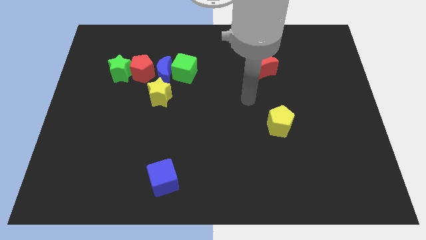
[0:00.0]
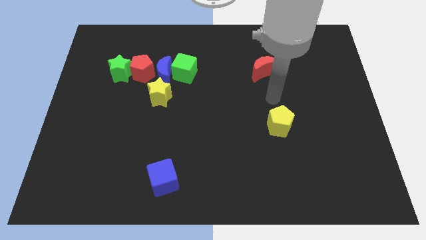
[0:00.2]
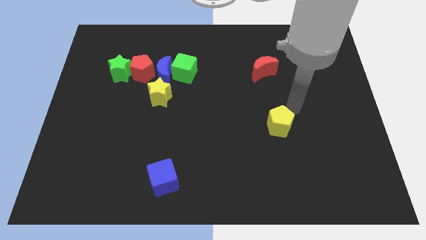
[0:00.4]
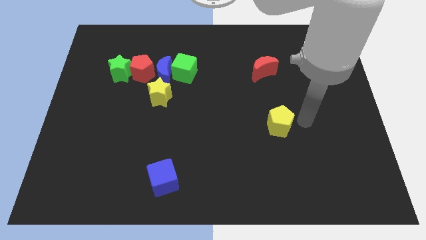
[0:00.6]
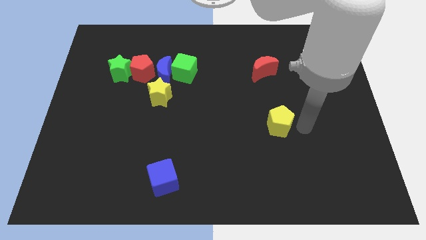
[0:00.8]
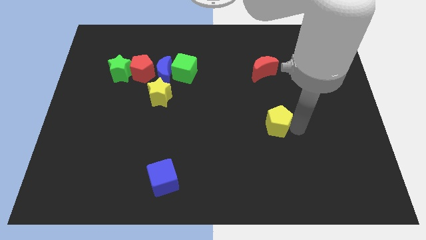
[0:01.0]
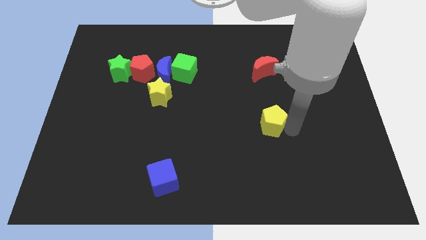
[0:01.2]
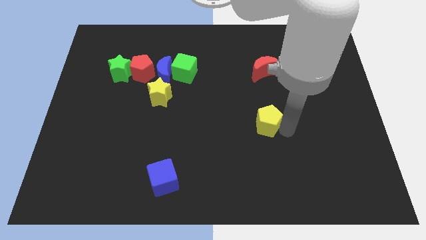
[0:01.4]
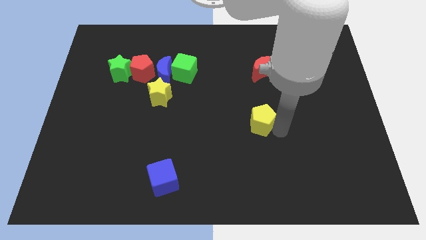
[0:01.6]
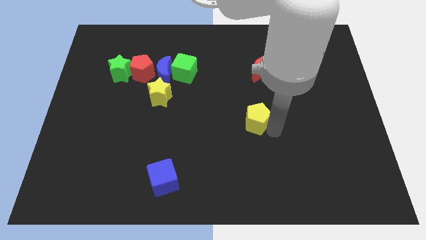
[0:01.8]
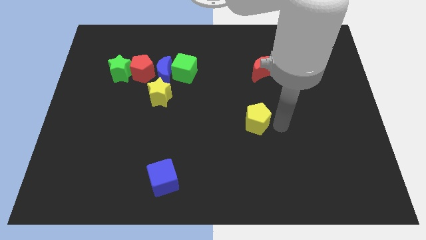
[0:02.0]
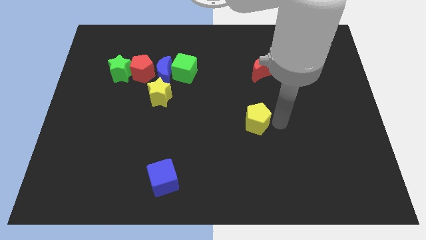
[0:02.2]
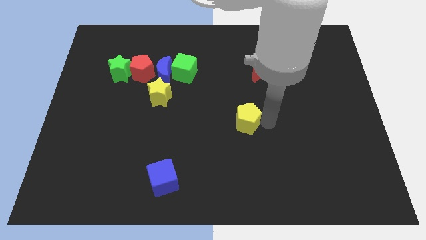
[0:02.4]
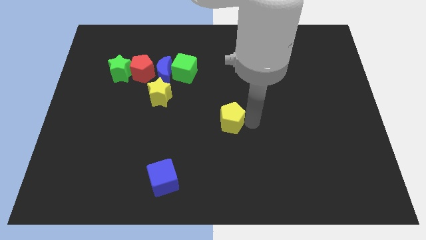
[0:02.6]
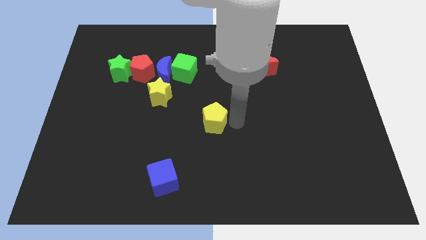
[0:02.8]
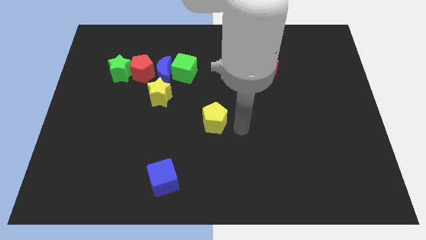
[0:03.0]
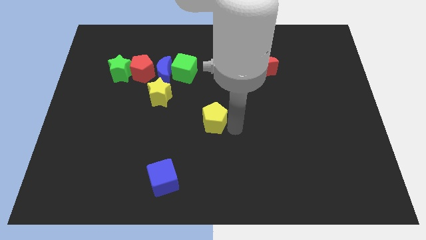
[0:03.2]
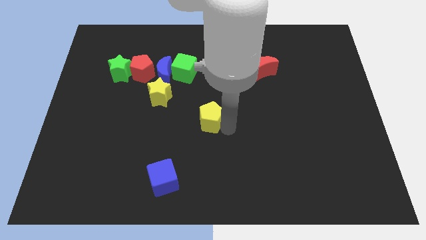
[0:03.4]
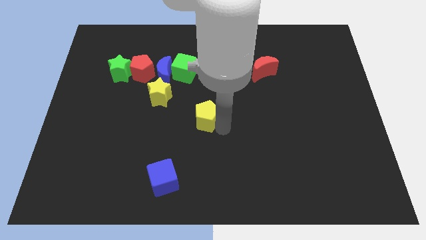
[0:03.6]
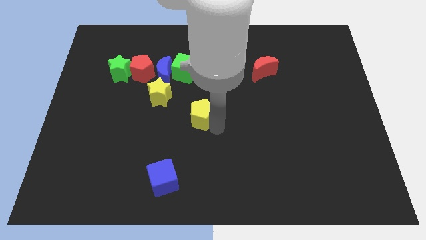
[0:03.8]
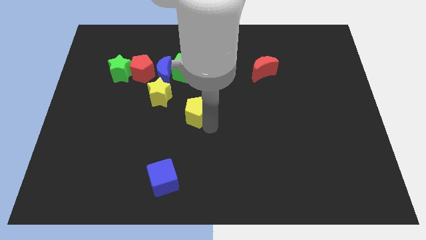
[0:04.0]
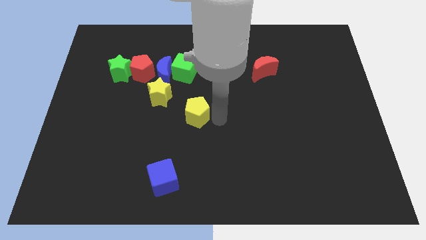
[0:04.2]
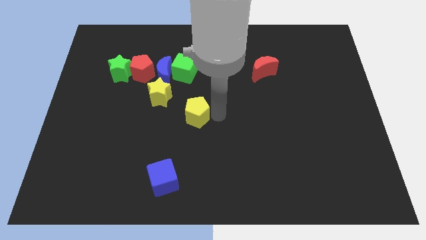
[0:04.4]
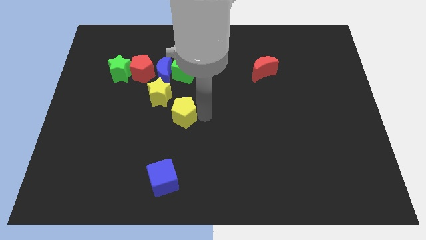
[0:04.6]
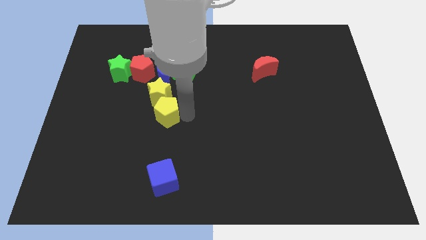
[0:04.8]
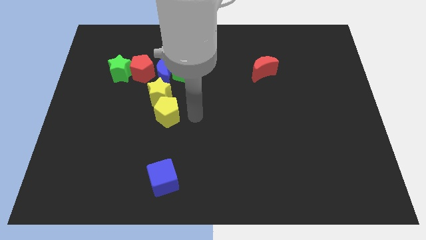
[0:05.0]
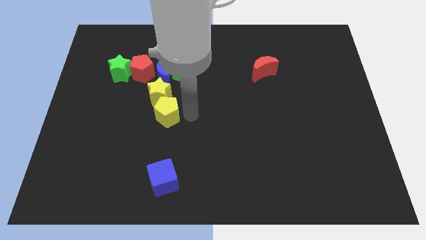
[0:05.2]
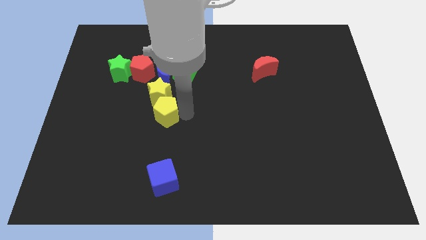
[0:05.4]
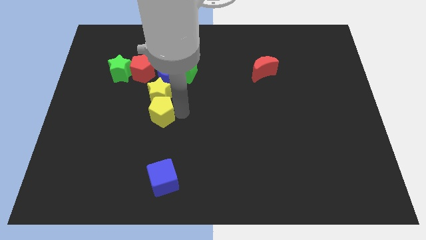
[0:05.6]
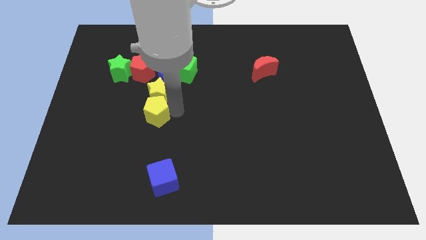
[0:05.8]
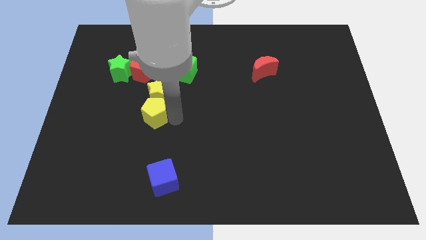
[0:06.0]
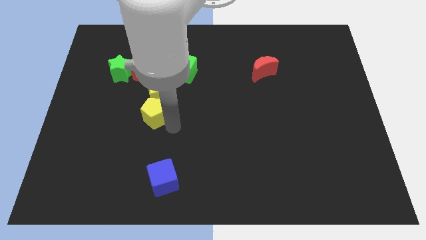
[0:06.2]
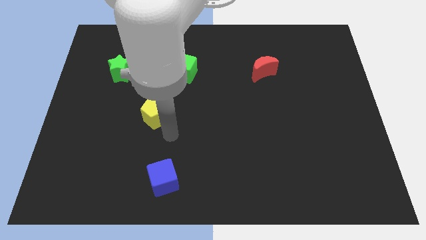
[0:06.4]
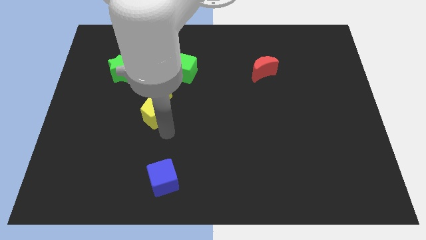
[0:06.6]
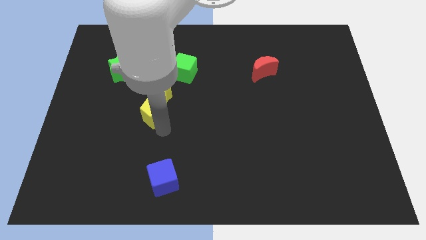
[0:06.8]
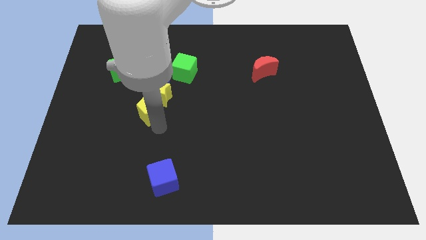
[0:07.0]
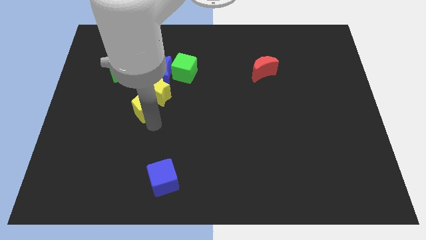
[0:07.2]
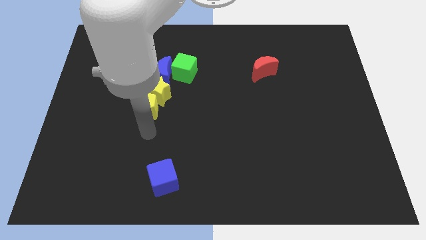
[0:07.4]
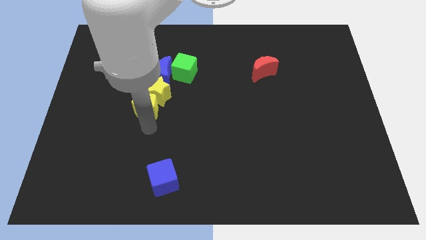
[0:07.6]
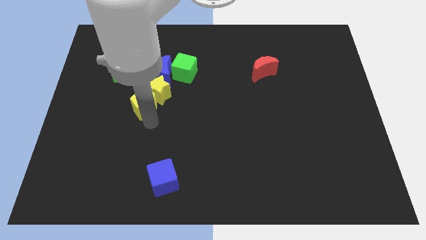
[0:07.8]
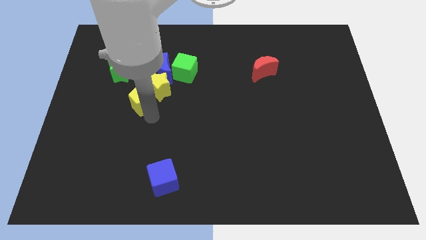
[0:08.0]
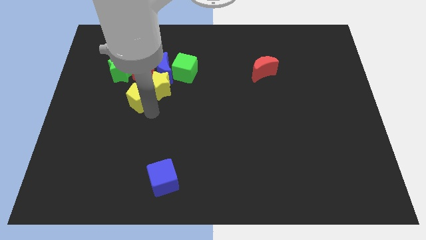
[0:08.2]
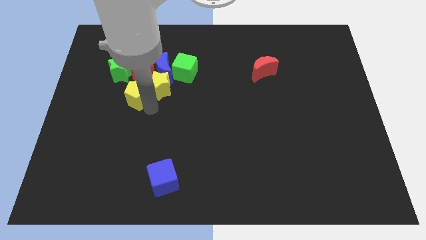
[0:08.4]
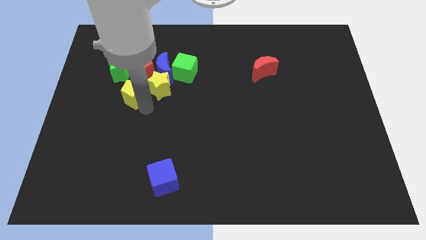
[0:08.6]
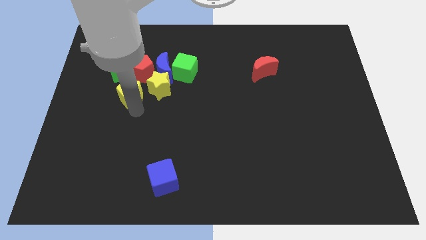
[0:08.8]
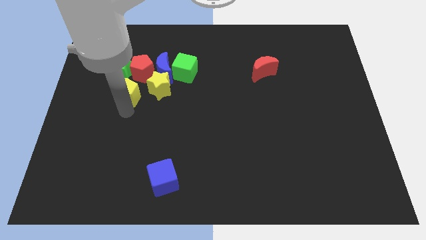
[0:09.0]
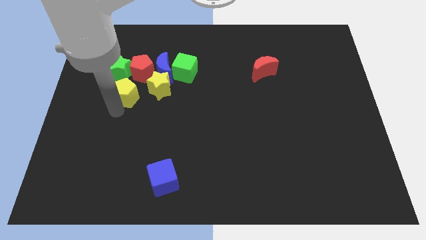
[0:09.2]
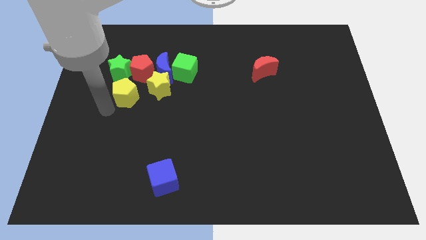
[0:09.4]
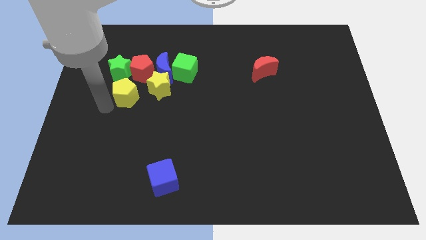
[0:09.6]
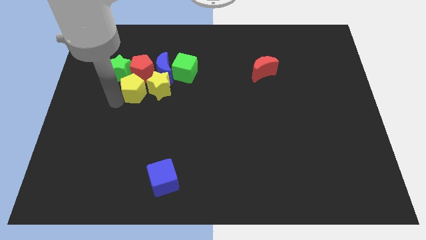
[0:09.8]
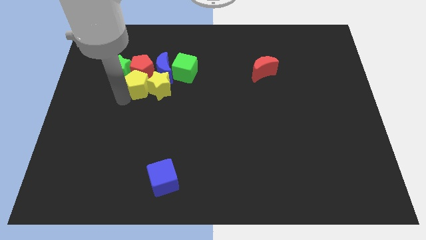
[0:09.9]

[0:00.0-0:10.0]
move the yellow pentagon towards the red pentagon

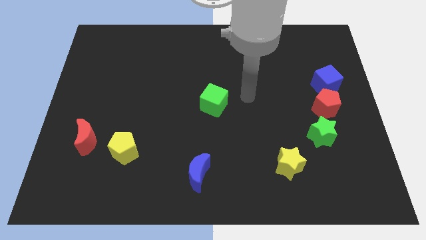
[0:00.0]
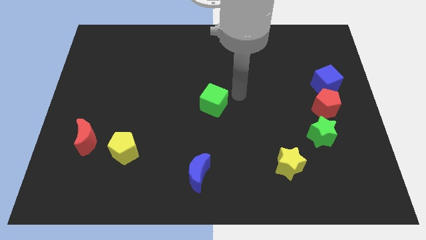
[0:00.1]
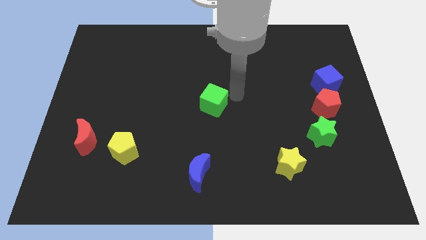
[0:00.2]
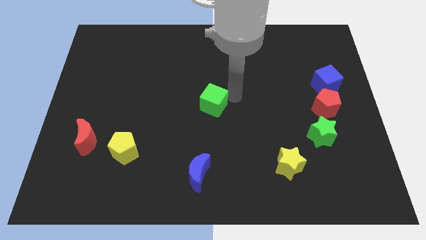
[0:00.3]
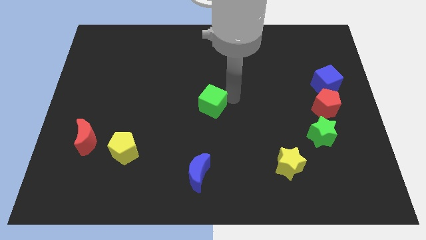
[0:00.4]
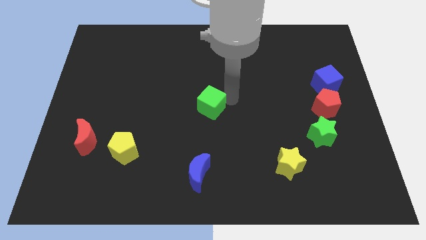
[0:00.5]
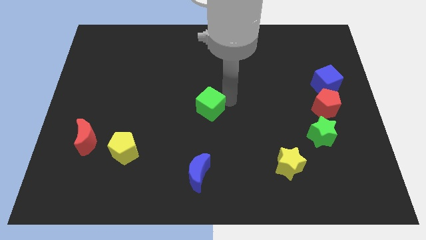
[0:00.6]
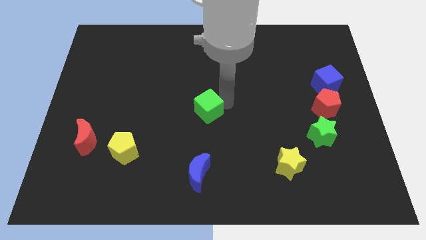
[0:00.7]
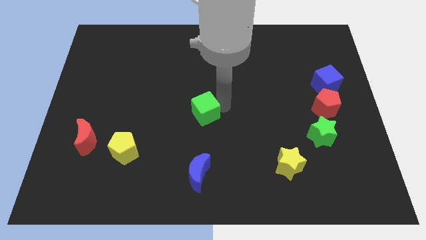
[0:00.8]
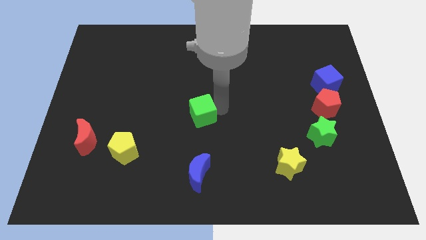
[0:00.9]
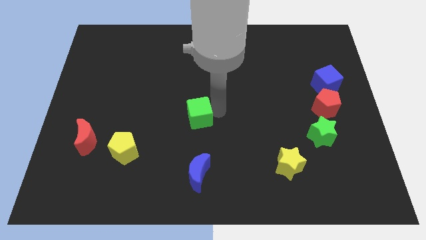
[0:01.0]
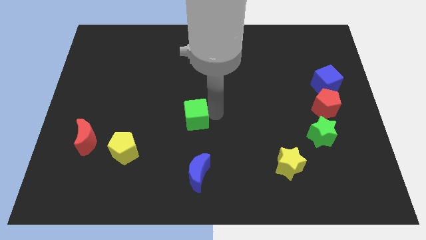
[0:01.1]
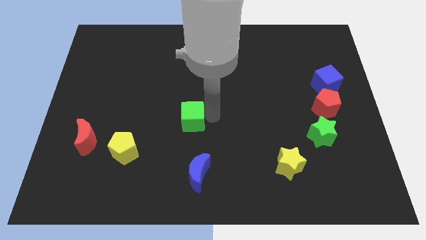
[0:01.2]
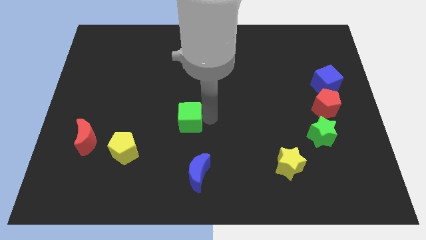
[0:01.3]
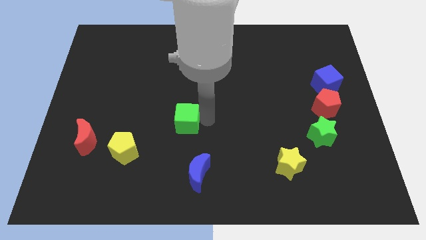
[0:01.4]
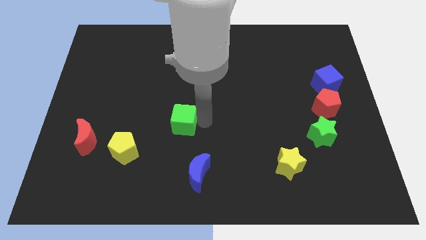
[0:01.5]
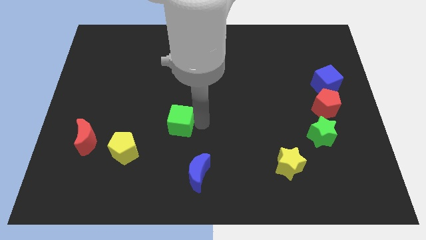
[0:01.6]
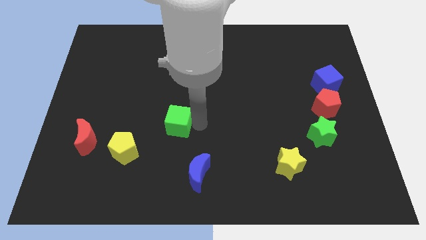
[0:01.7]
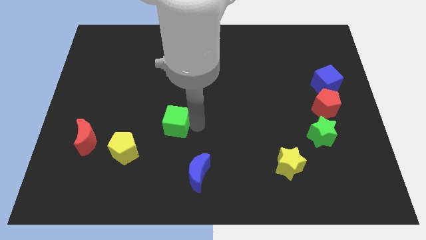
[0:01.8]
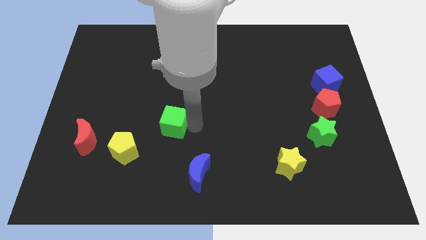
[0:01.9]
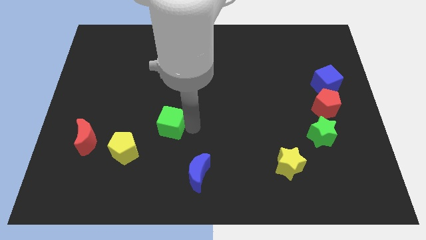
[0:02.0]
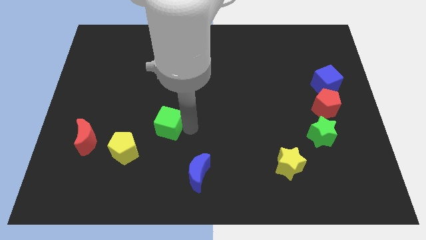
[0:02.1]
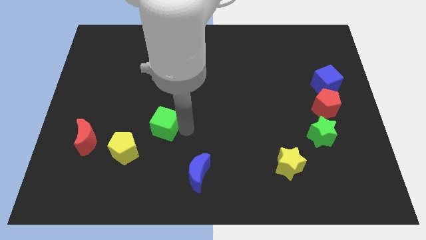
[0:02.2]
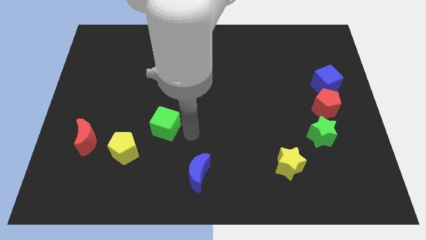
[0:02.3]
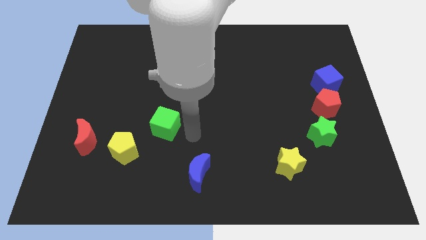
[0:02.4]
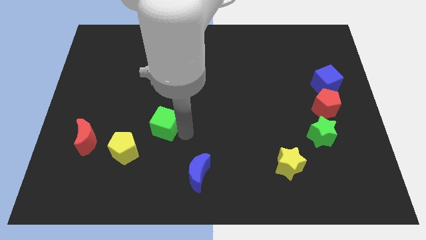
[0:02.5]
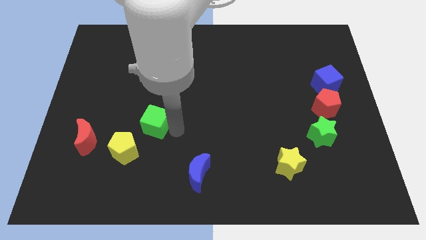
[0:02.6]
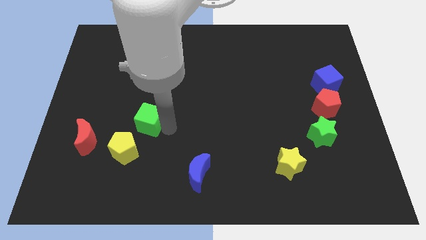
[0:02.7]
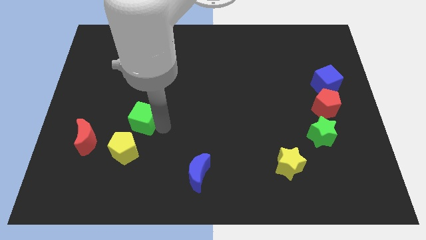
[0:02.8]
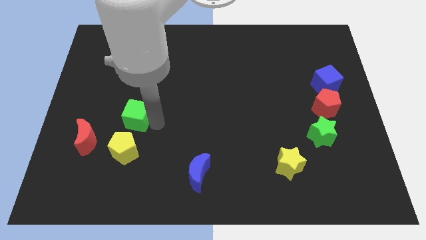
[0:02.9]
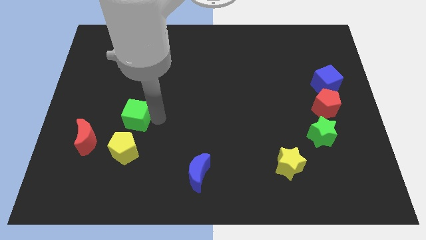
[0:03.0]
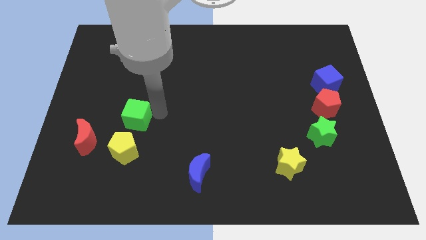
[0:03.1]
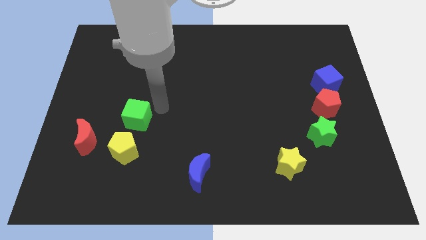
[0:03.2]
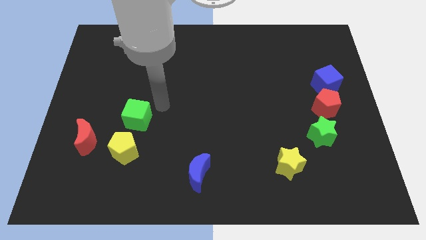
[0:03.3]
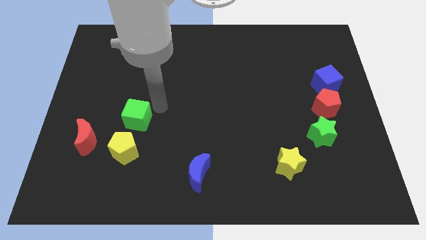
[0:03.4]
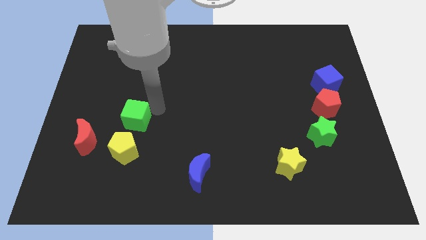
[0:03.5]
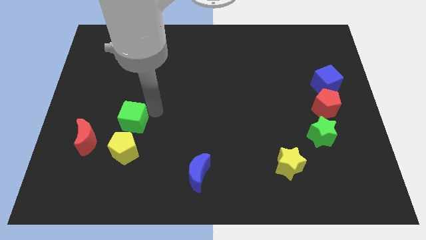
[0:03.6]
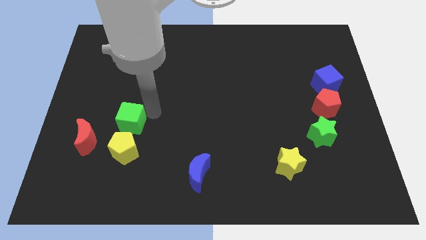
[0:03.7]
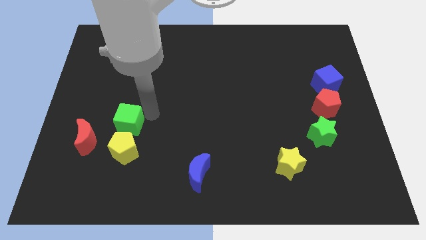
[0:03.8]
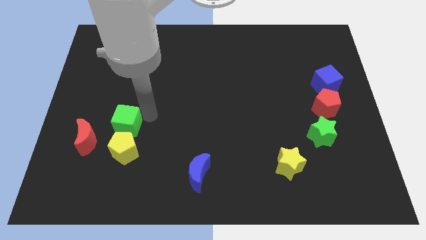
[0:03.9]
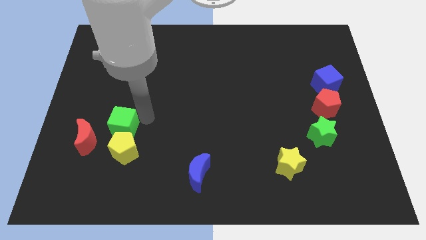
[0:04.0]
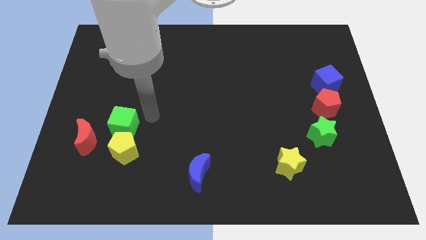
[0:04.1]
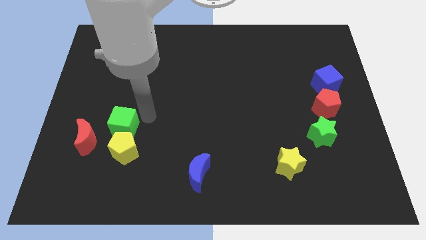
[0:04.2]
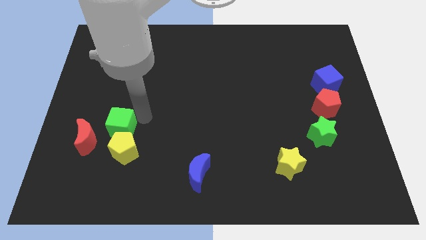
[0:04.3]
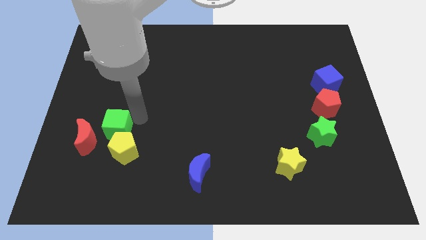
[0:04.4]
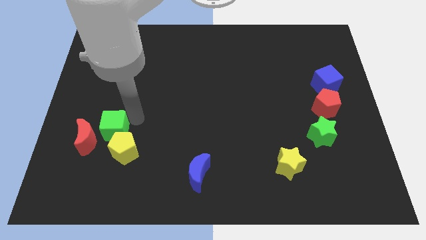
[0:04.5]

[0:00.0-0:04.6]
push the green cube towards the red moon
